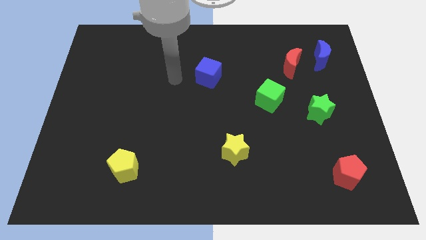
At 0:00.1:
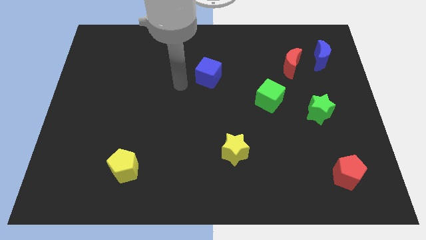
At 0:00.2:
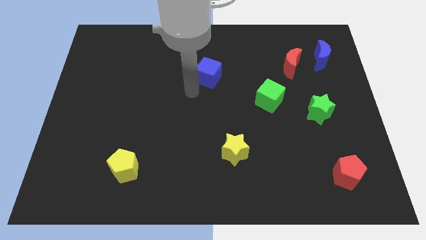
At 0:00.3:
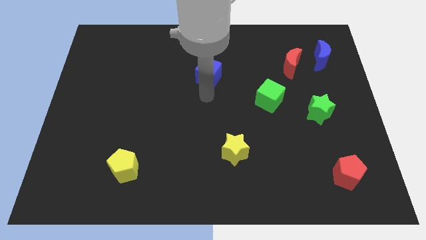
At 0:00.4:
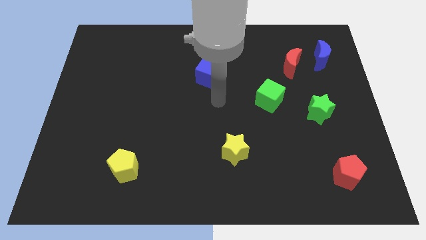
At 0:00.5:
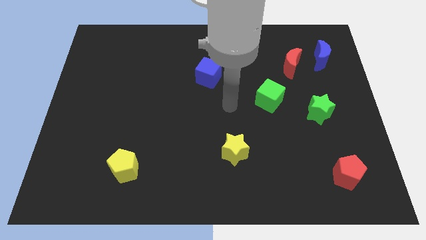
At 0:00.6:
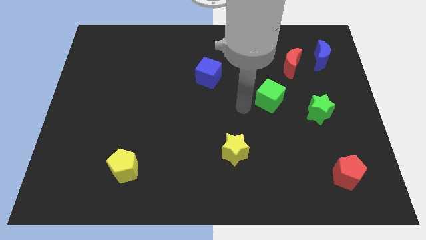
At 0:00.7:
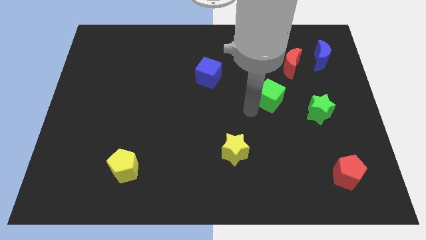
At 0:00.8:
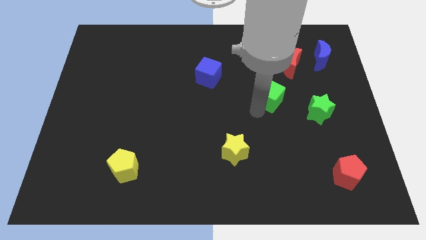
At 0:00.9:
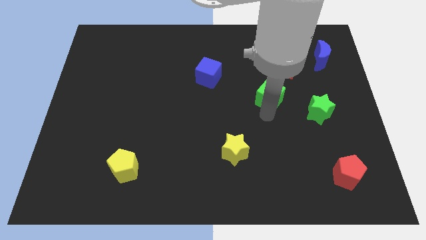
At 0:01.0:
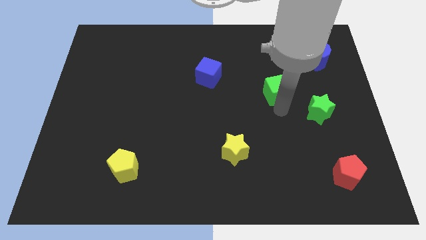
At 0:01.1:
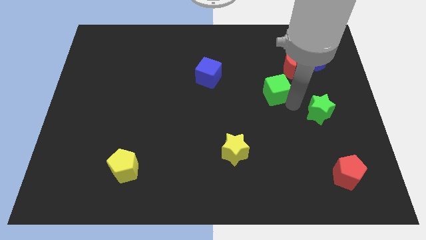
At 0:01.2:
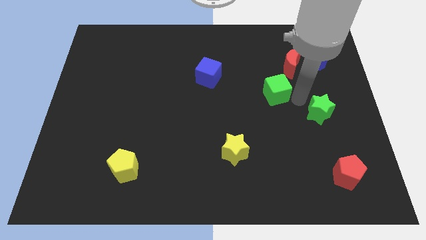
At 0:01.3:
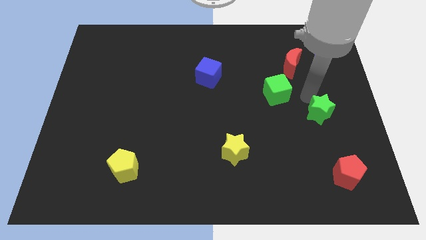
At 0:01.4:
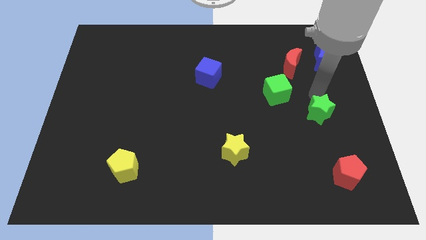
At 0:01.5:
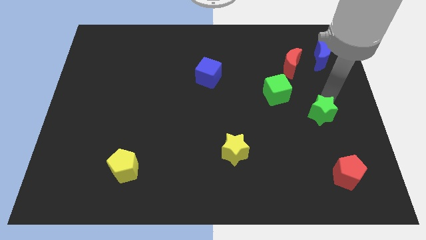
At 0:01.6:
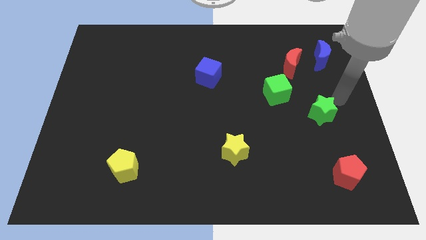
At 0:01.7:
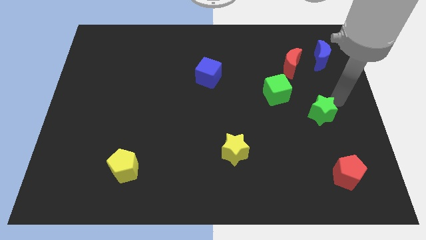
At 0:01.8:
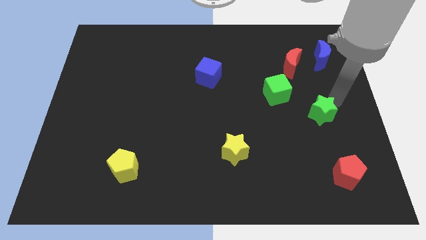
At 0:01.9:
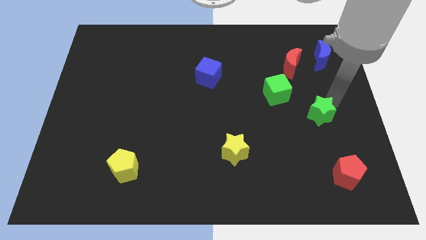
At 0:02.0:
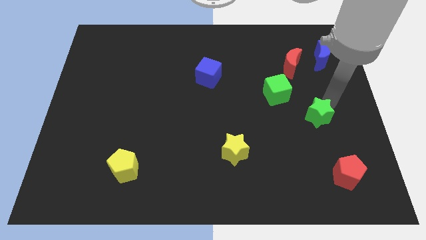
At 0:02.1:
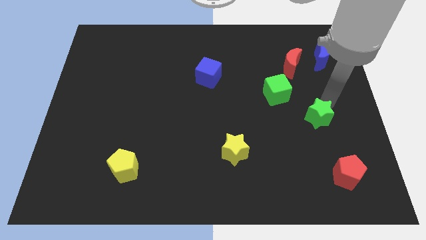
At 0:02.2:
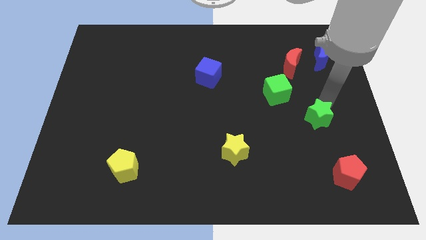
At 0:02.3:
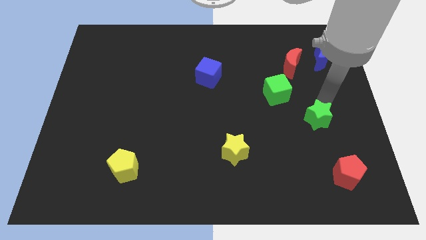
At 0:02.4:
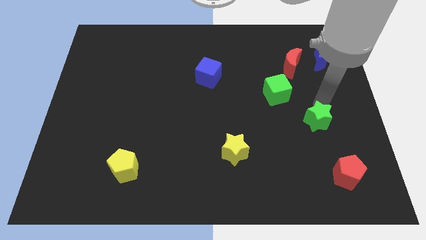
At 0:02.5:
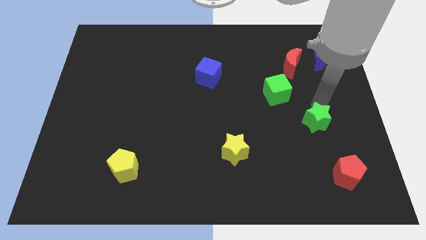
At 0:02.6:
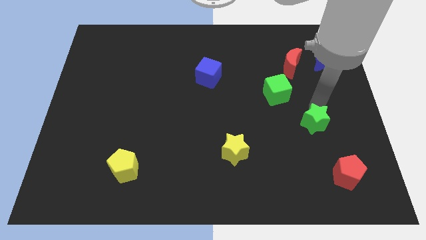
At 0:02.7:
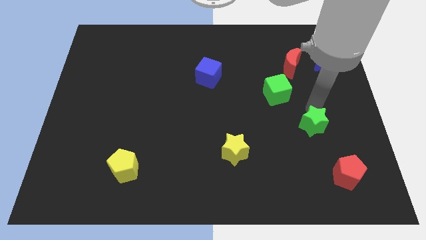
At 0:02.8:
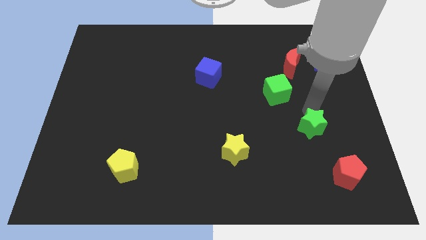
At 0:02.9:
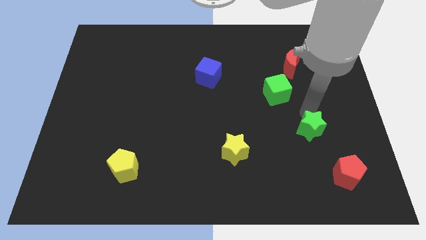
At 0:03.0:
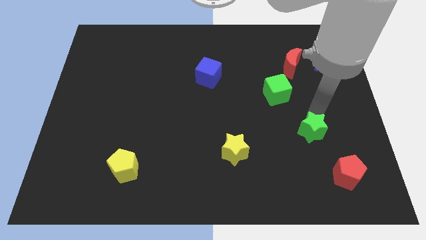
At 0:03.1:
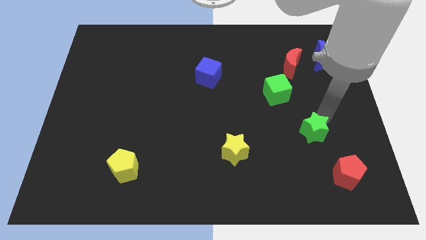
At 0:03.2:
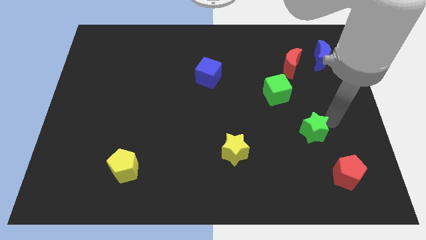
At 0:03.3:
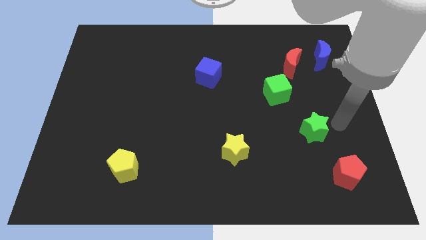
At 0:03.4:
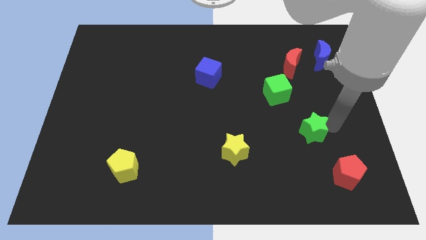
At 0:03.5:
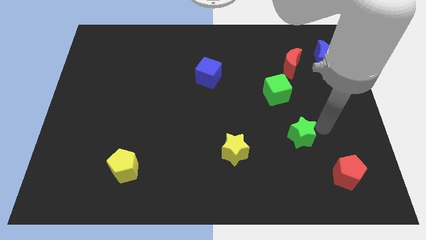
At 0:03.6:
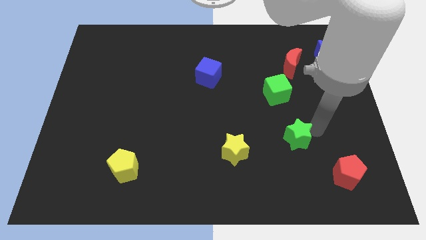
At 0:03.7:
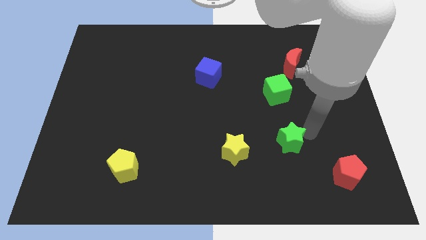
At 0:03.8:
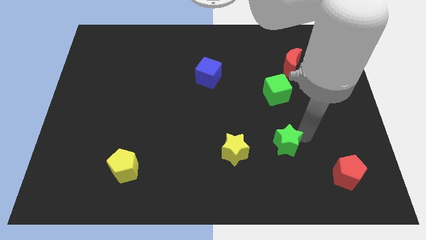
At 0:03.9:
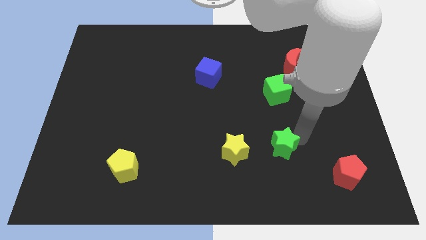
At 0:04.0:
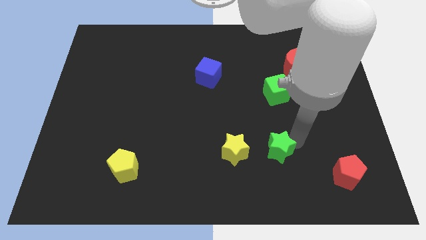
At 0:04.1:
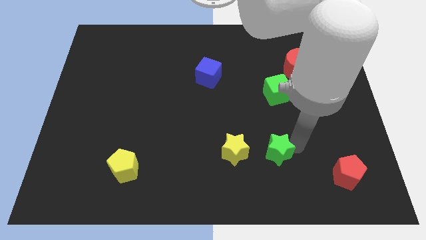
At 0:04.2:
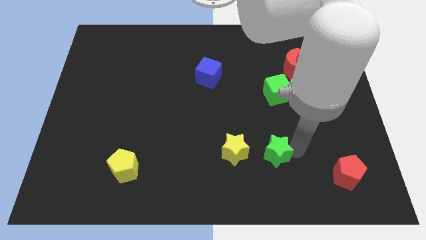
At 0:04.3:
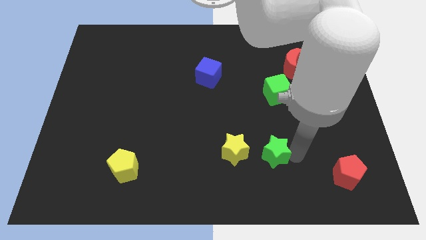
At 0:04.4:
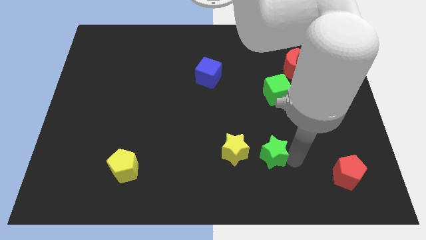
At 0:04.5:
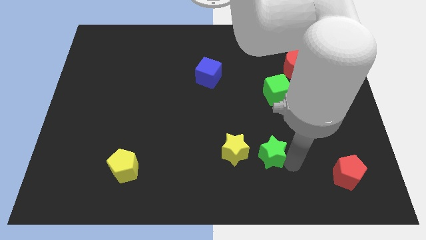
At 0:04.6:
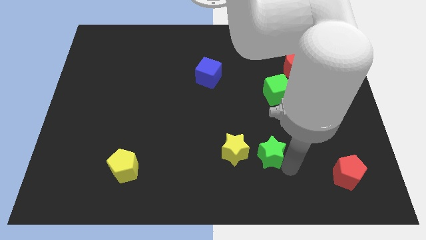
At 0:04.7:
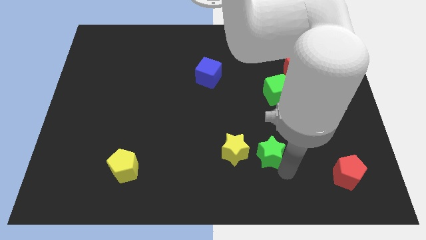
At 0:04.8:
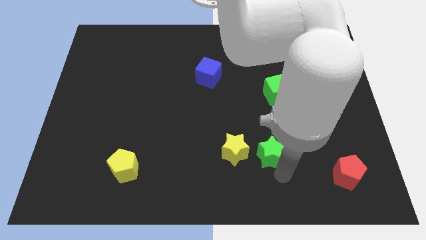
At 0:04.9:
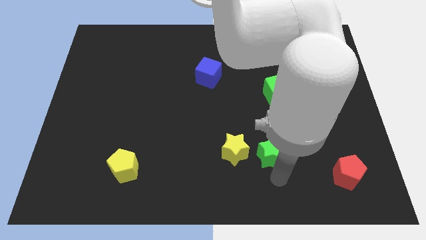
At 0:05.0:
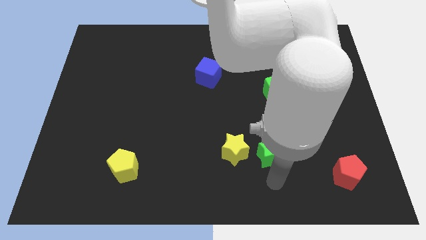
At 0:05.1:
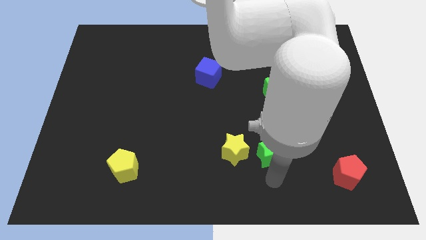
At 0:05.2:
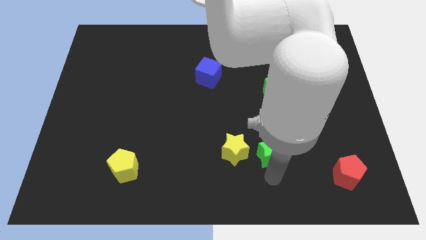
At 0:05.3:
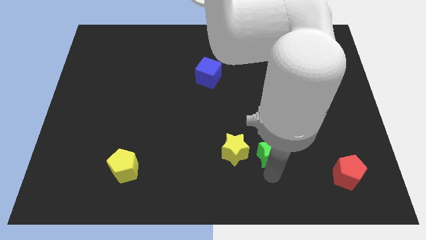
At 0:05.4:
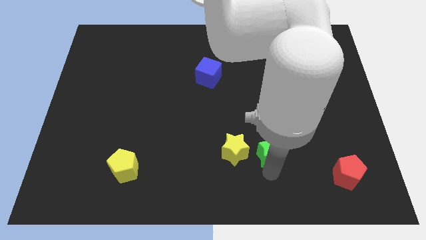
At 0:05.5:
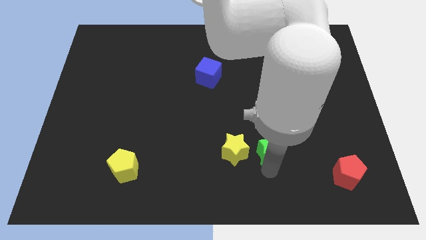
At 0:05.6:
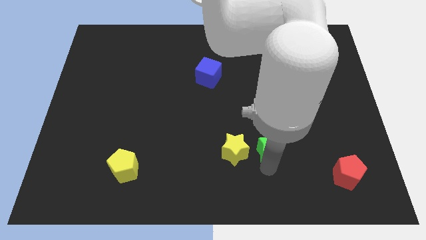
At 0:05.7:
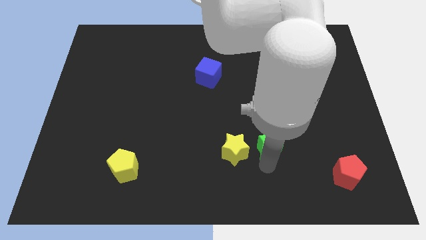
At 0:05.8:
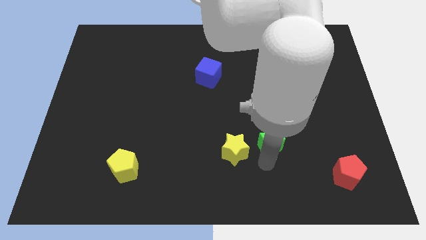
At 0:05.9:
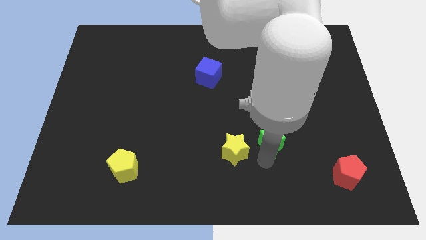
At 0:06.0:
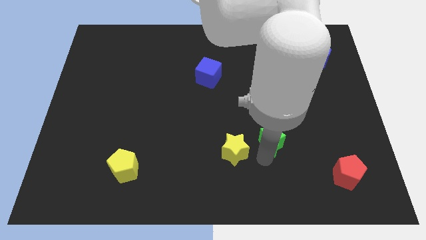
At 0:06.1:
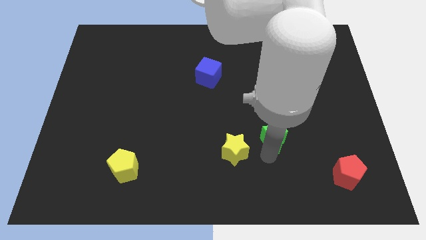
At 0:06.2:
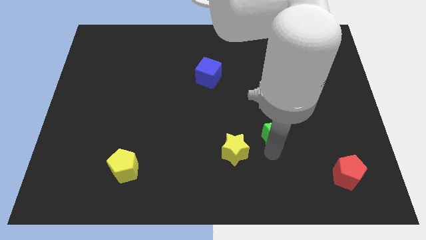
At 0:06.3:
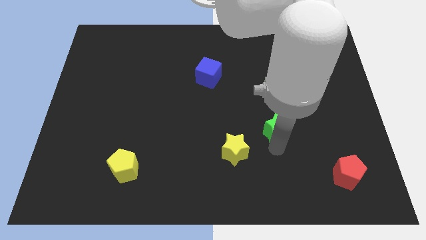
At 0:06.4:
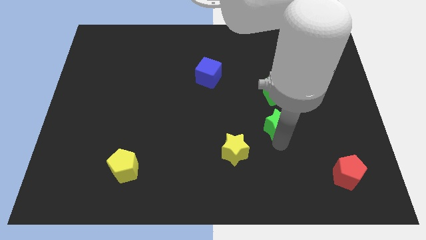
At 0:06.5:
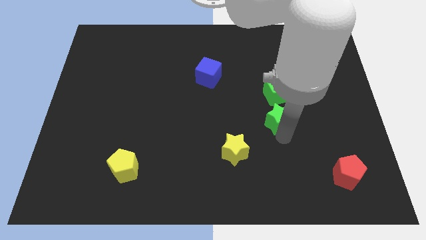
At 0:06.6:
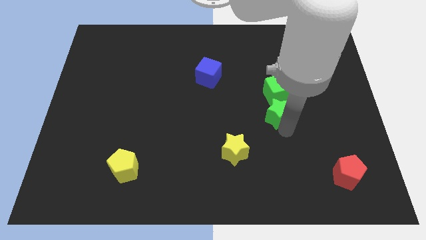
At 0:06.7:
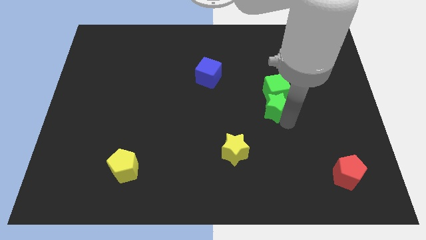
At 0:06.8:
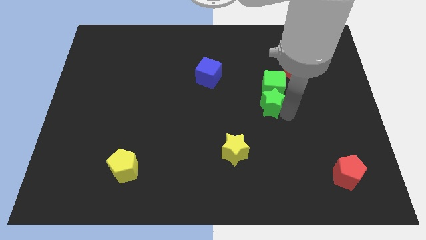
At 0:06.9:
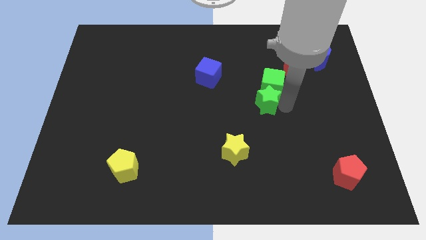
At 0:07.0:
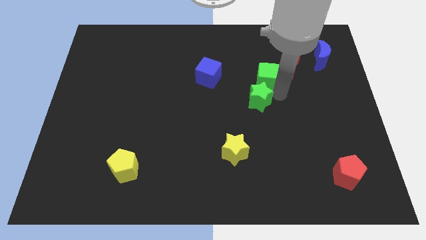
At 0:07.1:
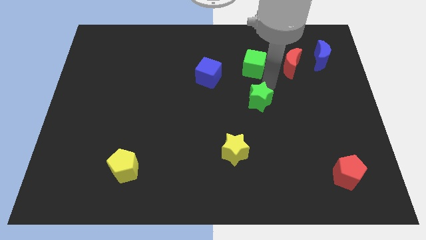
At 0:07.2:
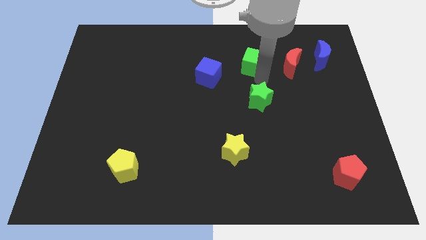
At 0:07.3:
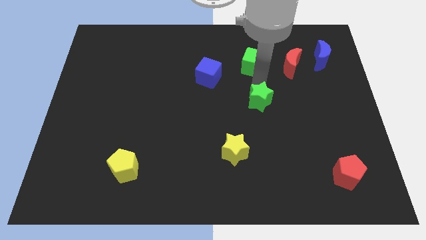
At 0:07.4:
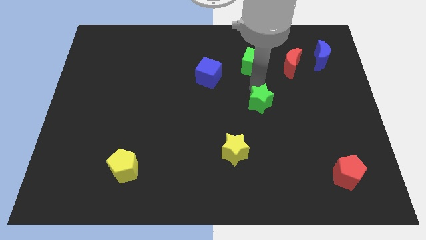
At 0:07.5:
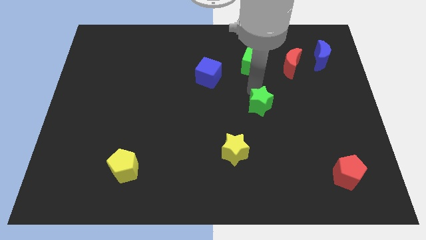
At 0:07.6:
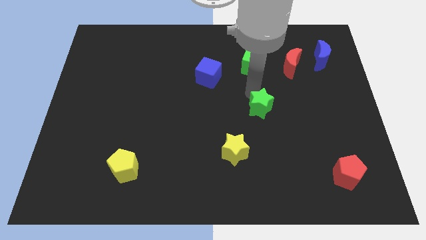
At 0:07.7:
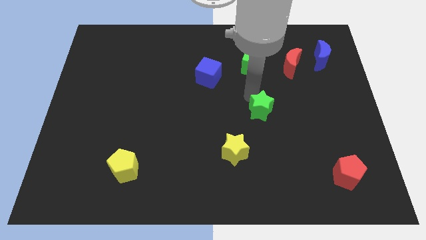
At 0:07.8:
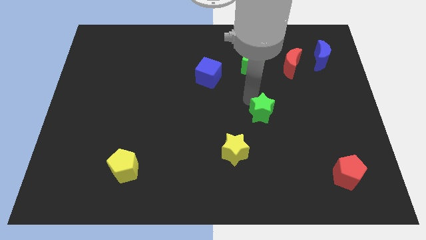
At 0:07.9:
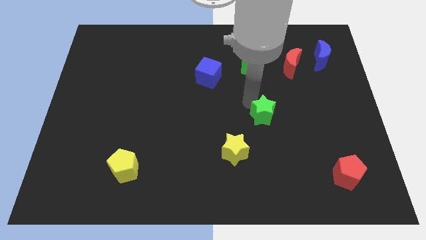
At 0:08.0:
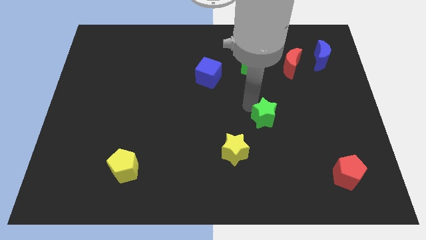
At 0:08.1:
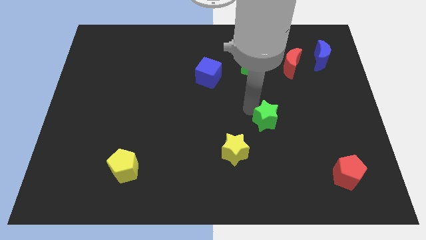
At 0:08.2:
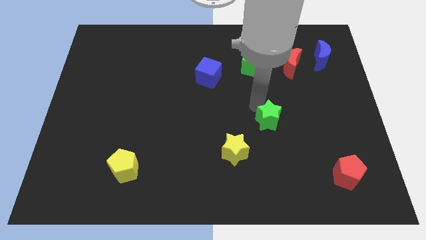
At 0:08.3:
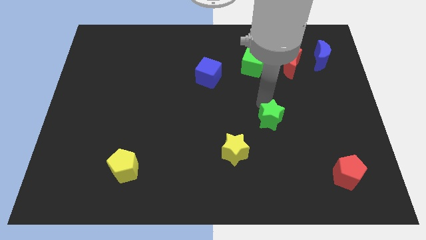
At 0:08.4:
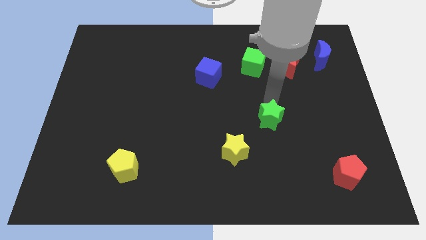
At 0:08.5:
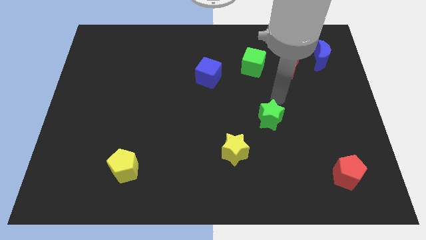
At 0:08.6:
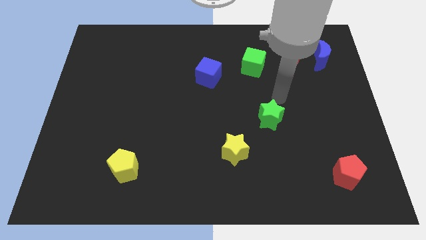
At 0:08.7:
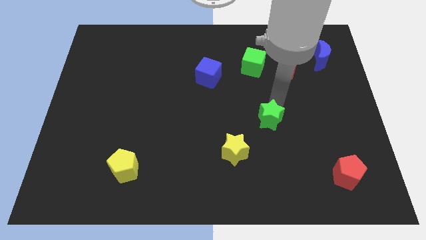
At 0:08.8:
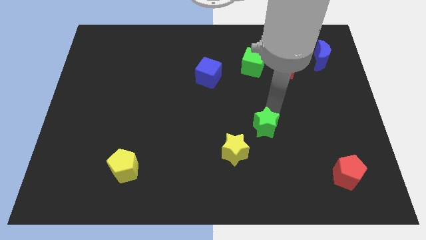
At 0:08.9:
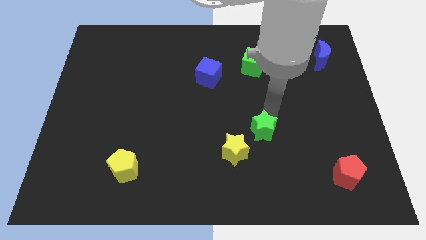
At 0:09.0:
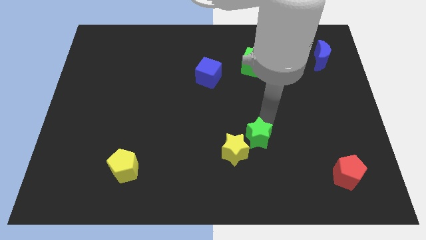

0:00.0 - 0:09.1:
slide the green star close to the yellow star
